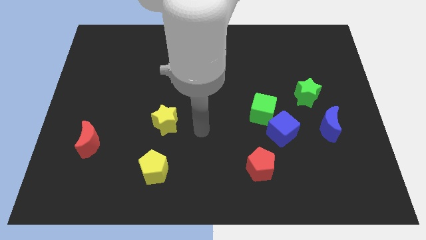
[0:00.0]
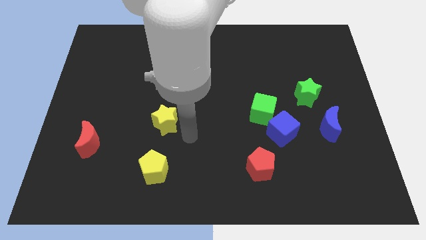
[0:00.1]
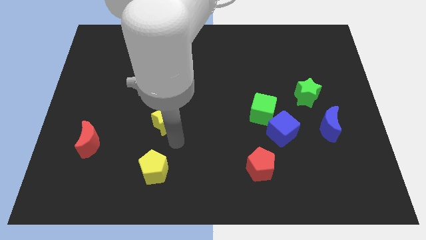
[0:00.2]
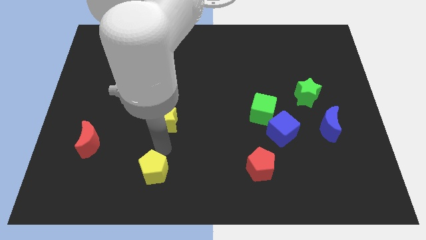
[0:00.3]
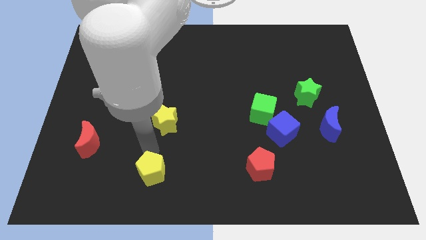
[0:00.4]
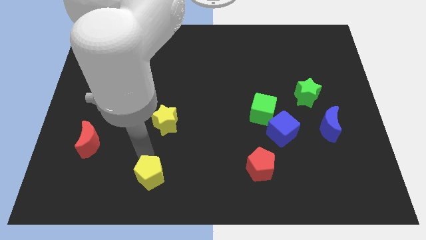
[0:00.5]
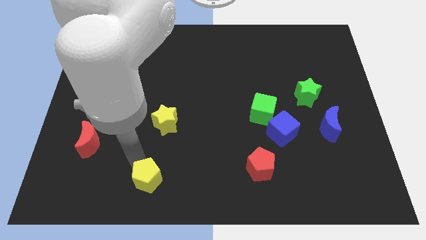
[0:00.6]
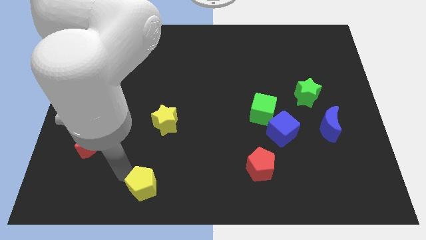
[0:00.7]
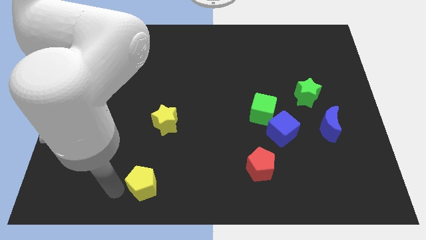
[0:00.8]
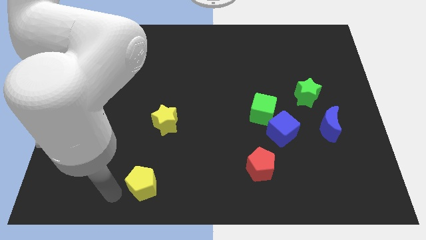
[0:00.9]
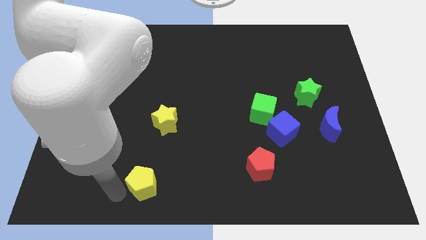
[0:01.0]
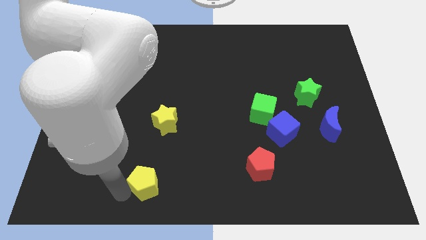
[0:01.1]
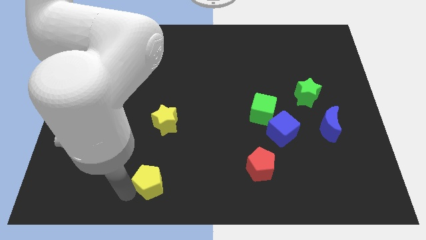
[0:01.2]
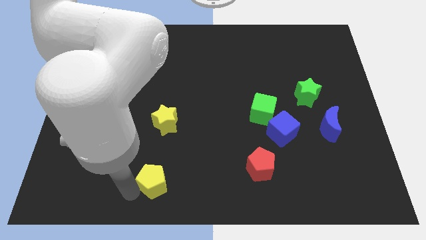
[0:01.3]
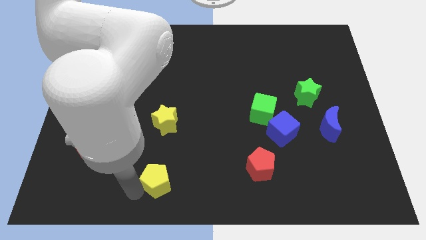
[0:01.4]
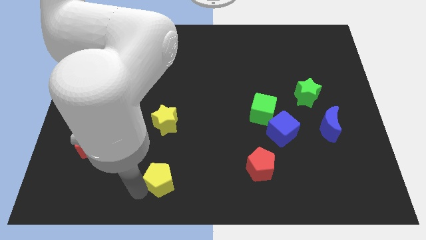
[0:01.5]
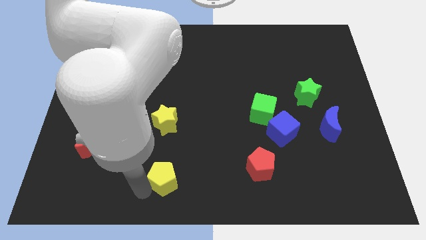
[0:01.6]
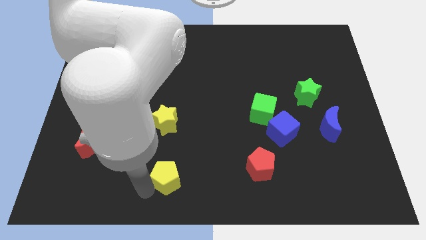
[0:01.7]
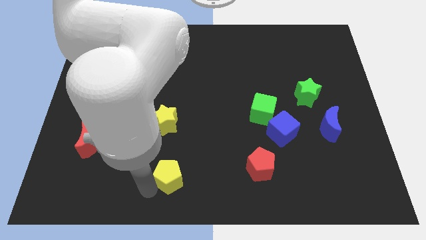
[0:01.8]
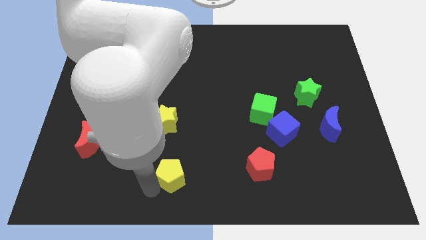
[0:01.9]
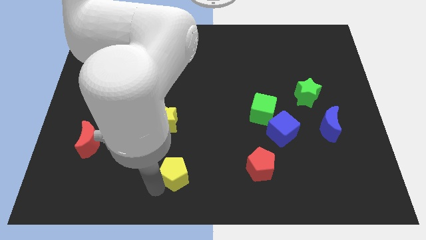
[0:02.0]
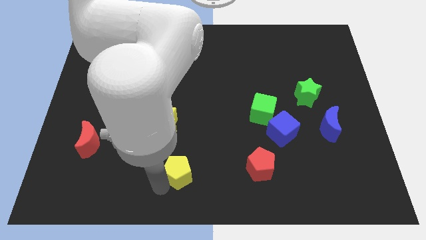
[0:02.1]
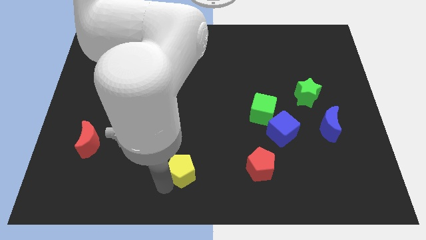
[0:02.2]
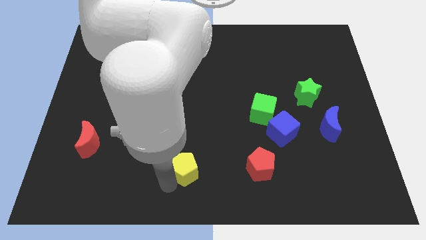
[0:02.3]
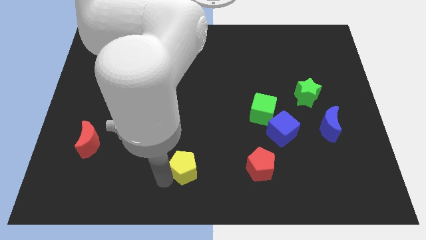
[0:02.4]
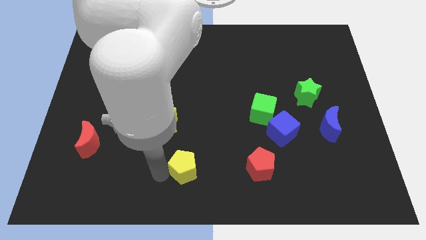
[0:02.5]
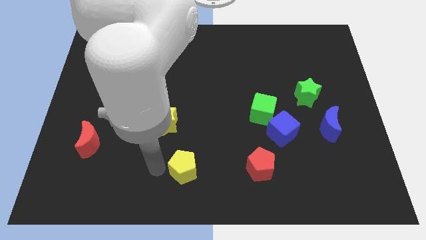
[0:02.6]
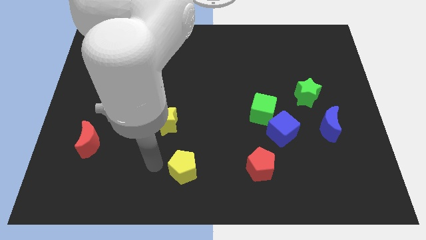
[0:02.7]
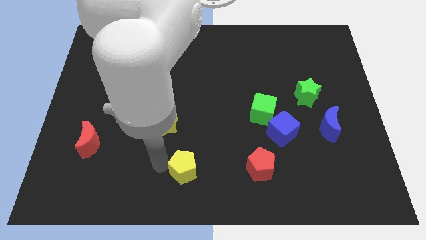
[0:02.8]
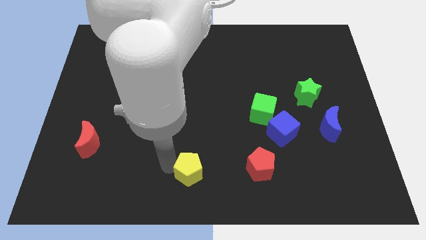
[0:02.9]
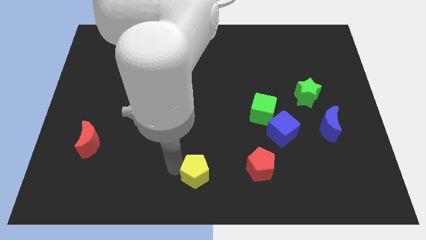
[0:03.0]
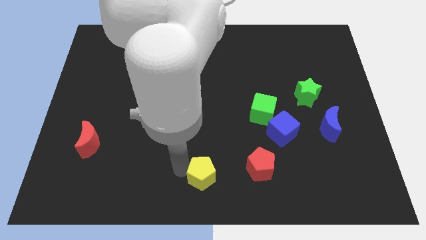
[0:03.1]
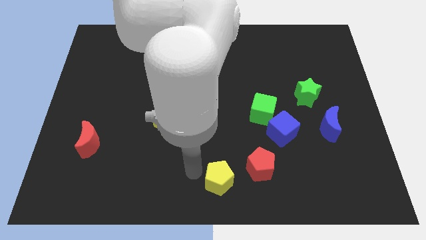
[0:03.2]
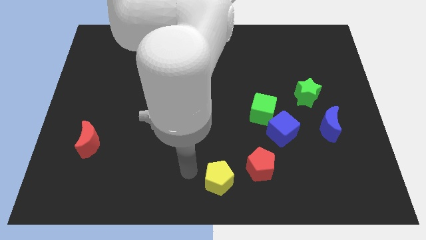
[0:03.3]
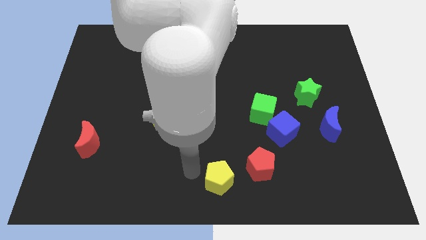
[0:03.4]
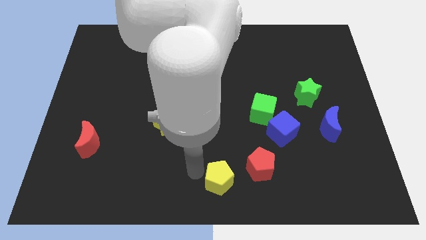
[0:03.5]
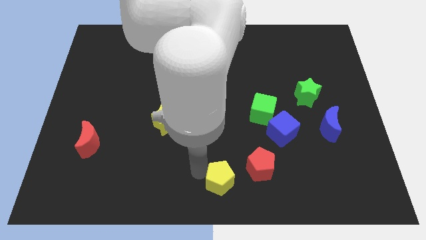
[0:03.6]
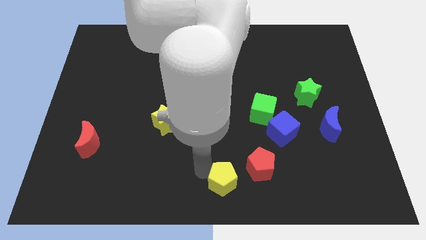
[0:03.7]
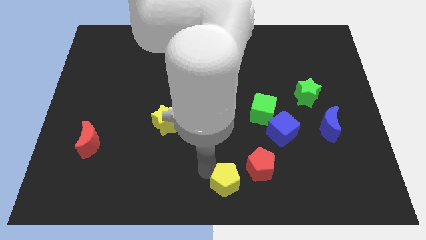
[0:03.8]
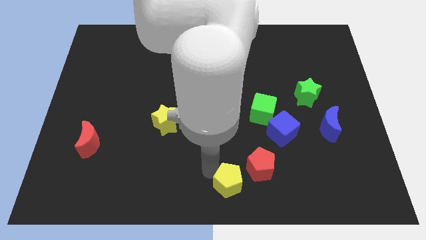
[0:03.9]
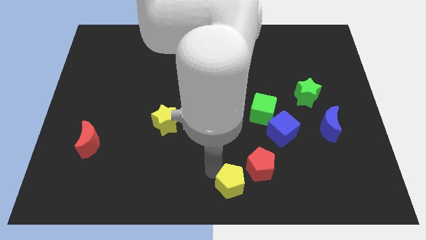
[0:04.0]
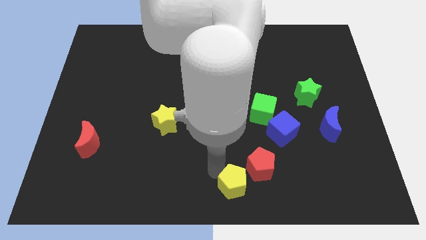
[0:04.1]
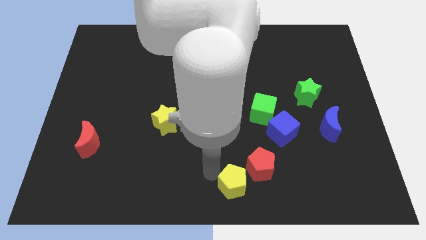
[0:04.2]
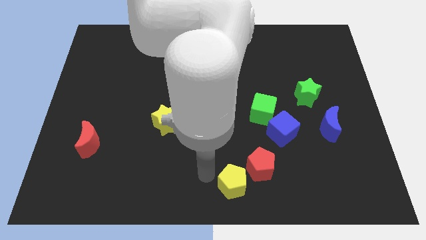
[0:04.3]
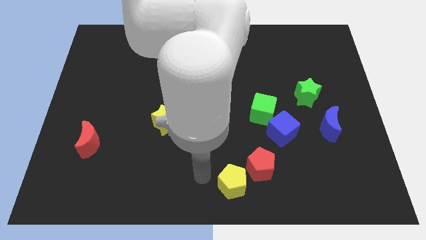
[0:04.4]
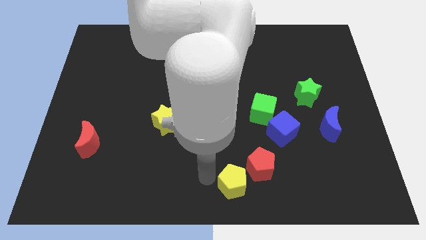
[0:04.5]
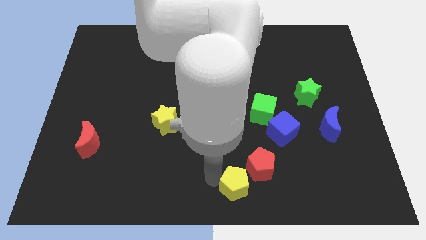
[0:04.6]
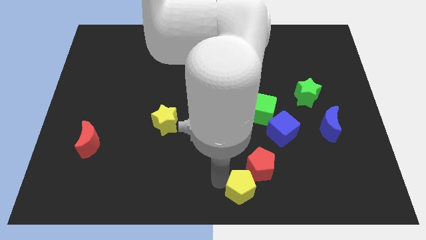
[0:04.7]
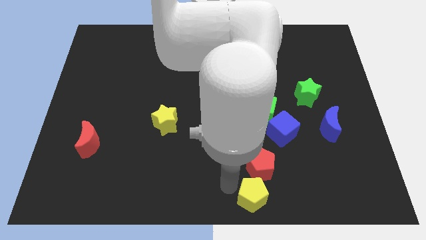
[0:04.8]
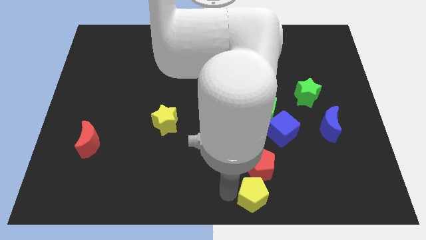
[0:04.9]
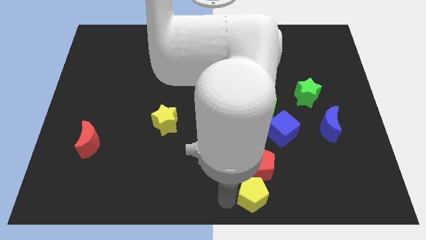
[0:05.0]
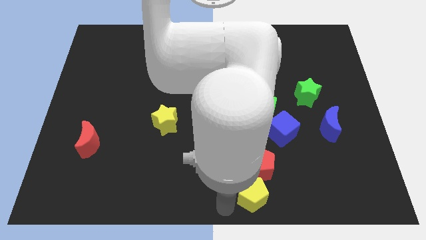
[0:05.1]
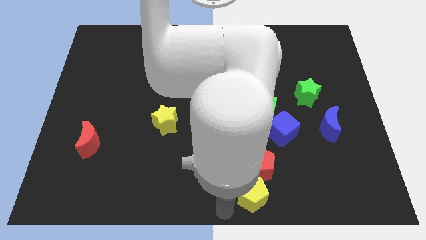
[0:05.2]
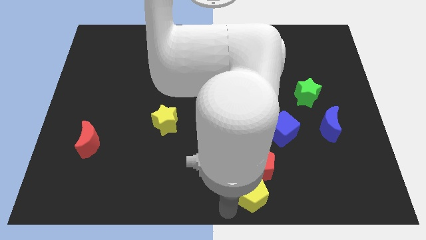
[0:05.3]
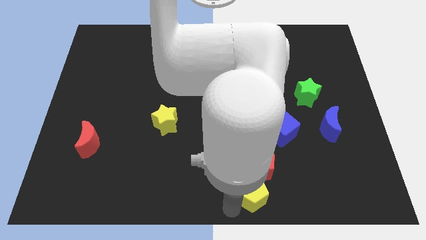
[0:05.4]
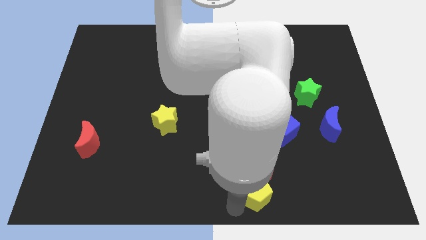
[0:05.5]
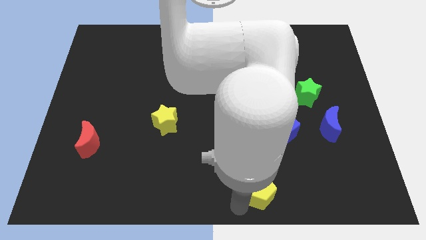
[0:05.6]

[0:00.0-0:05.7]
slide the yellow pentagon to the right

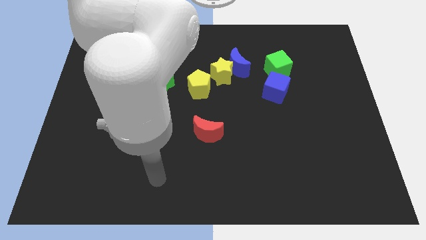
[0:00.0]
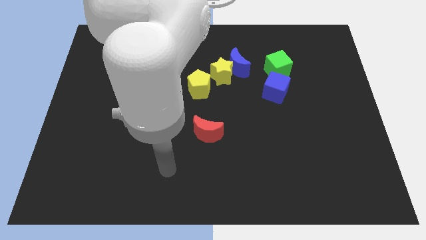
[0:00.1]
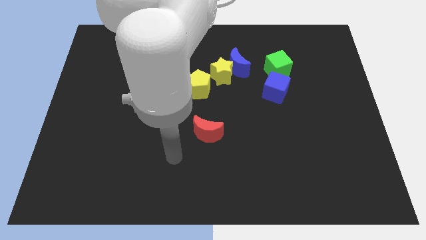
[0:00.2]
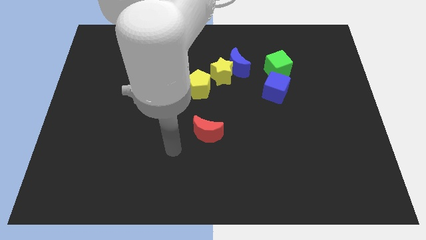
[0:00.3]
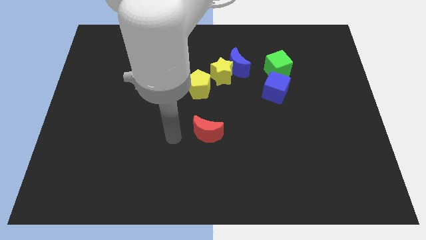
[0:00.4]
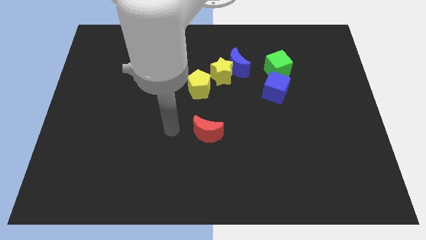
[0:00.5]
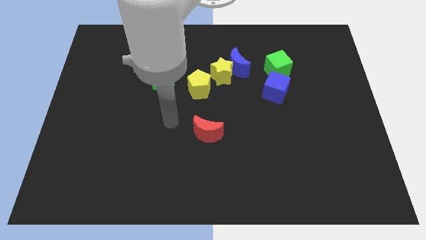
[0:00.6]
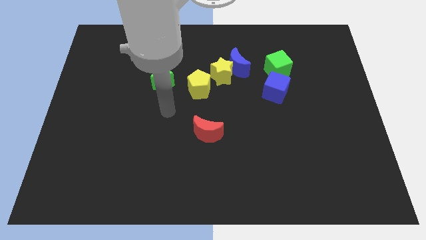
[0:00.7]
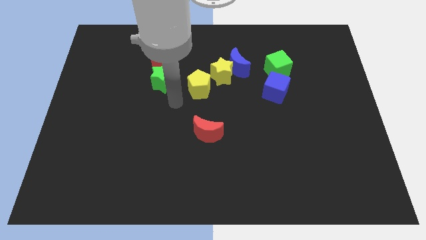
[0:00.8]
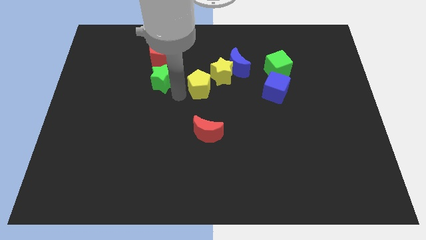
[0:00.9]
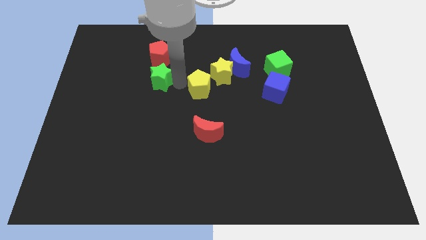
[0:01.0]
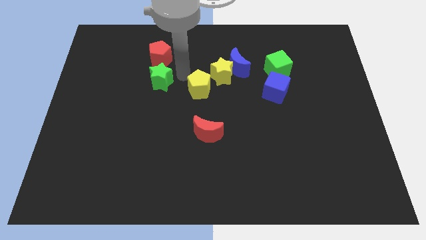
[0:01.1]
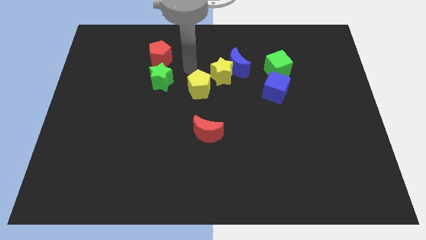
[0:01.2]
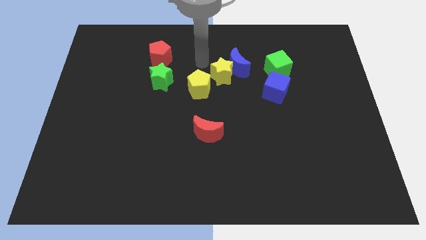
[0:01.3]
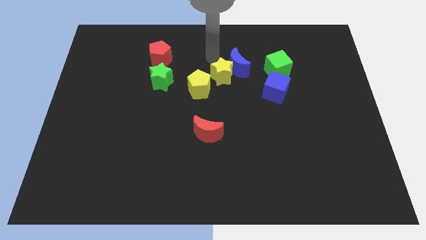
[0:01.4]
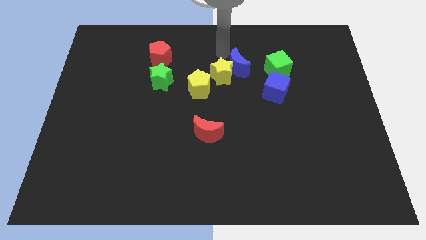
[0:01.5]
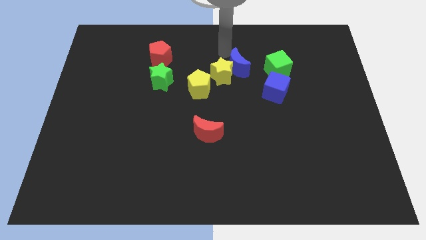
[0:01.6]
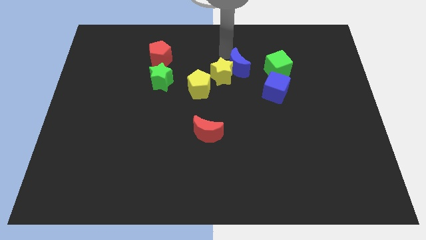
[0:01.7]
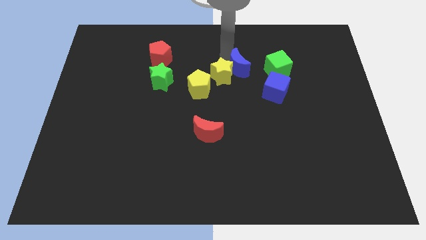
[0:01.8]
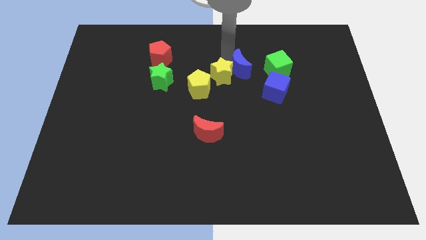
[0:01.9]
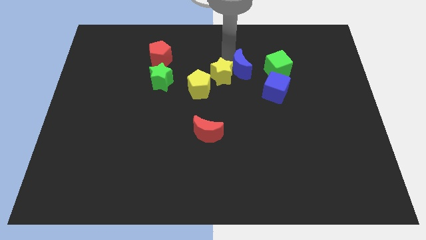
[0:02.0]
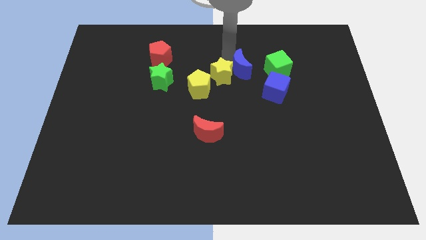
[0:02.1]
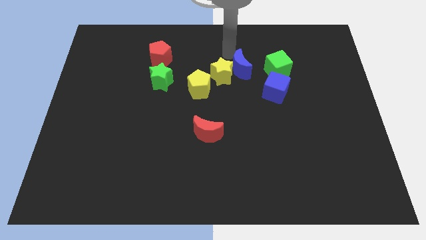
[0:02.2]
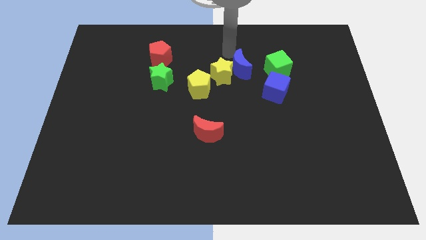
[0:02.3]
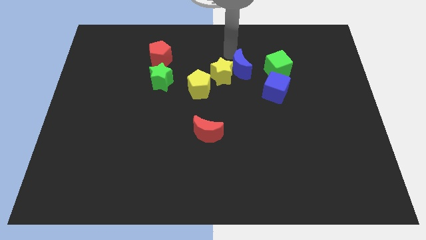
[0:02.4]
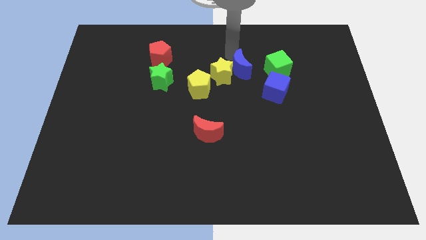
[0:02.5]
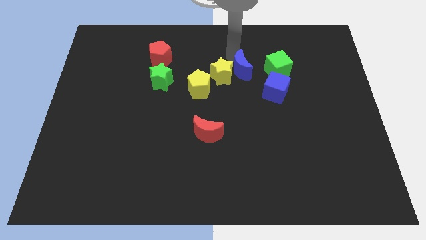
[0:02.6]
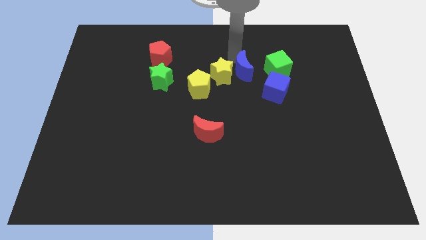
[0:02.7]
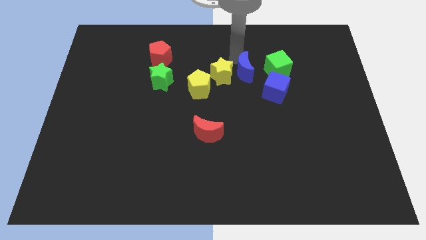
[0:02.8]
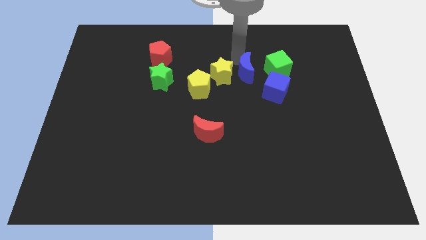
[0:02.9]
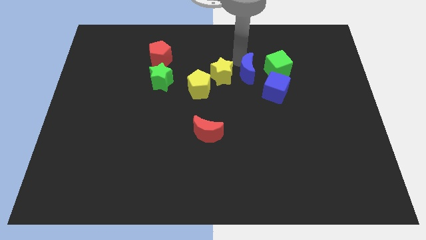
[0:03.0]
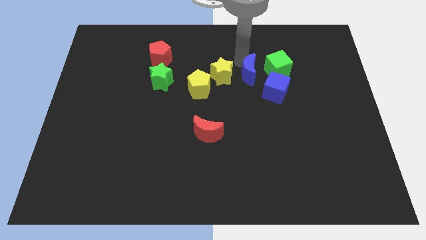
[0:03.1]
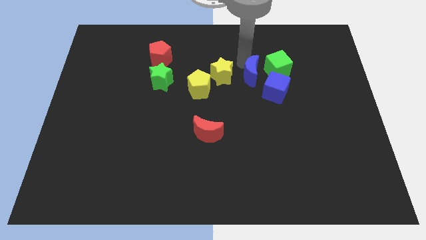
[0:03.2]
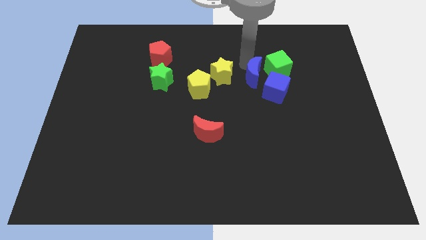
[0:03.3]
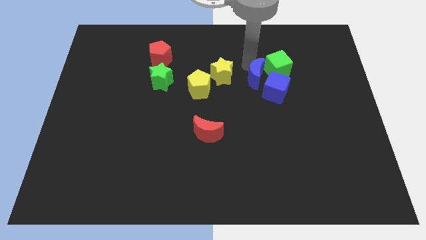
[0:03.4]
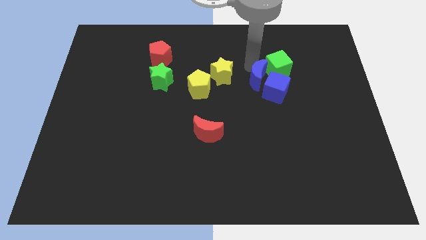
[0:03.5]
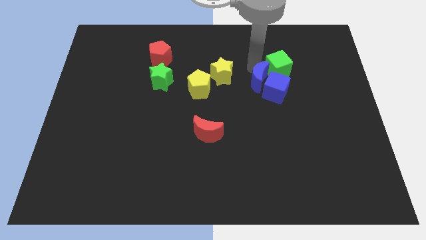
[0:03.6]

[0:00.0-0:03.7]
slide the blue moon diagonally downwards and to the right a little
